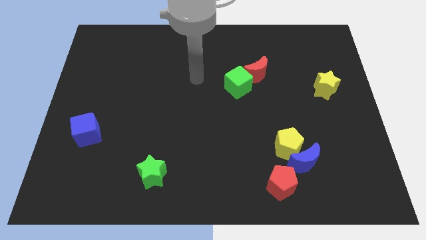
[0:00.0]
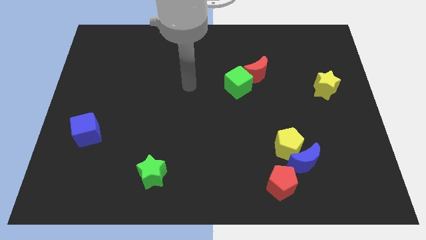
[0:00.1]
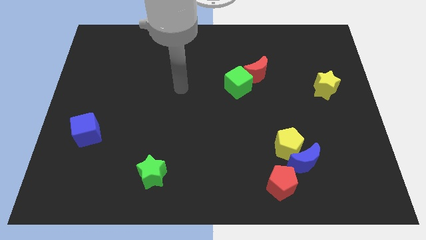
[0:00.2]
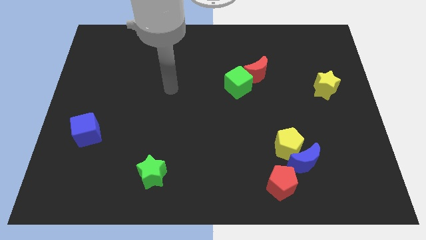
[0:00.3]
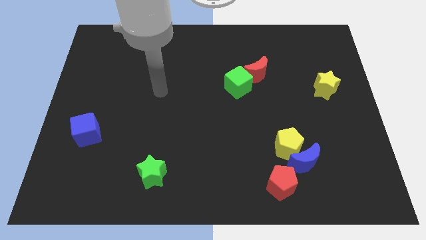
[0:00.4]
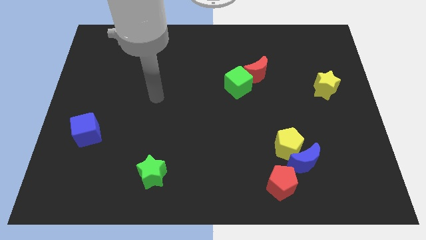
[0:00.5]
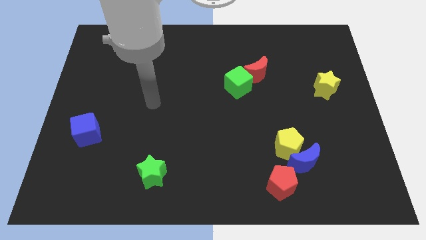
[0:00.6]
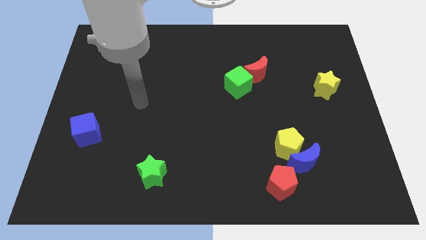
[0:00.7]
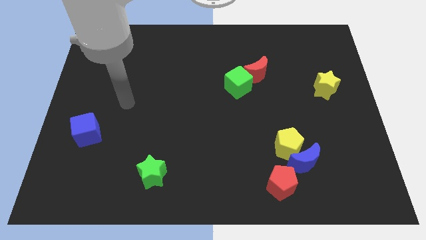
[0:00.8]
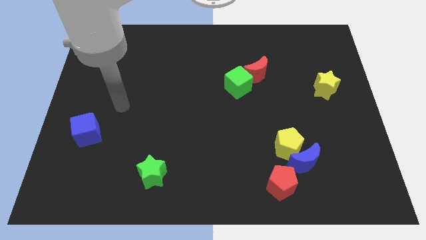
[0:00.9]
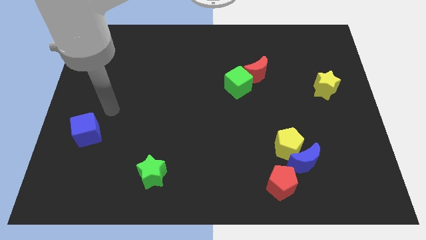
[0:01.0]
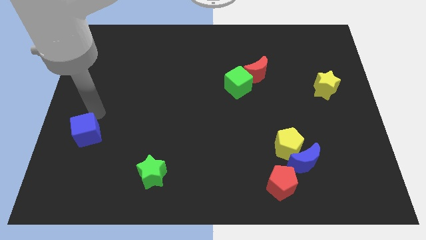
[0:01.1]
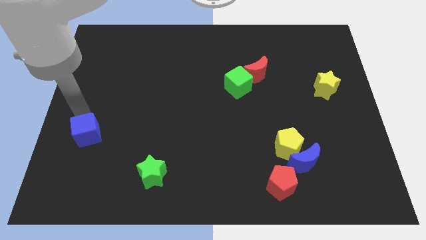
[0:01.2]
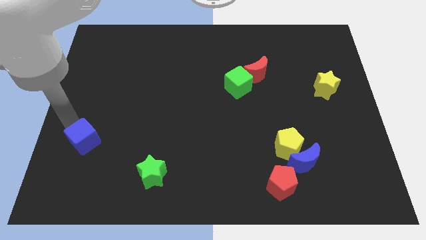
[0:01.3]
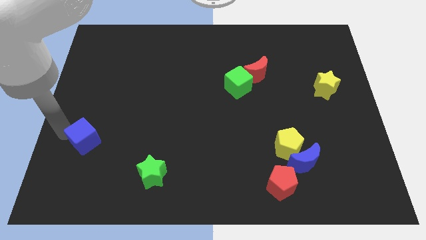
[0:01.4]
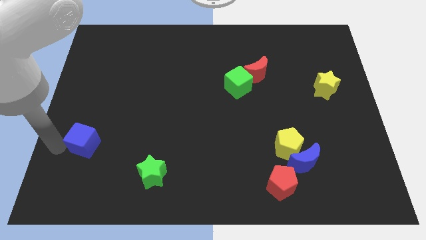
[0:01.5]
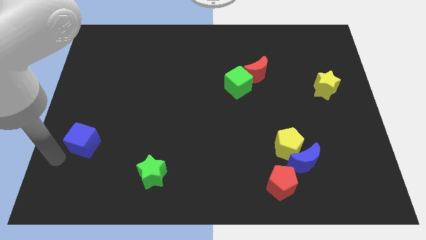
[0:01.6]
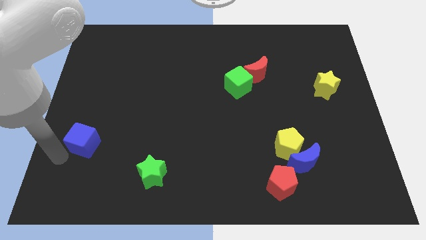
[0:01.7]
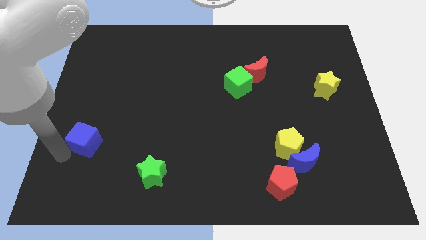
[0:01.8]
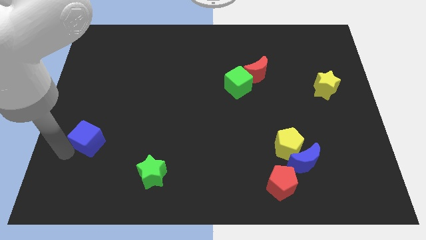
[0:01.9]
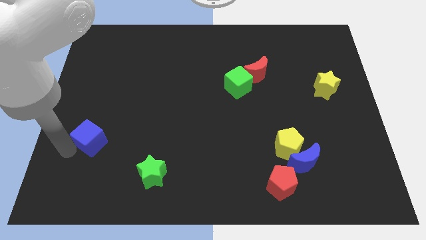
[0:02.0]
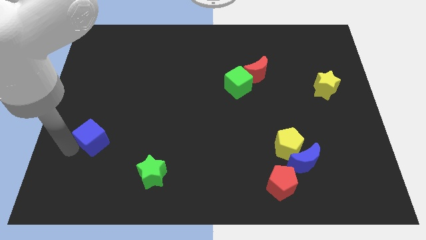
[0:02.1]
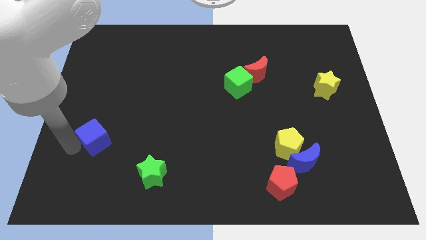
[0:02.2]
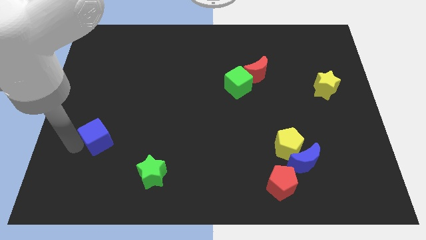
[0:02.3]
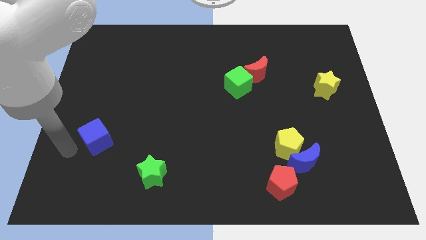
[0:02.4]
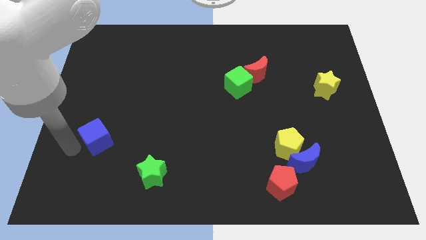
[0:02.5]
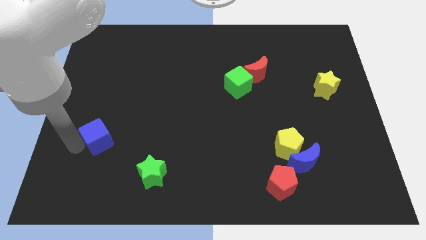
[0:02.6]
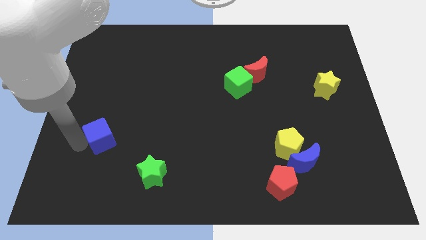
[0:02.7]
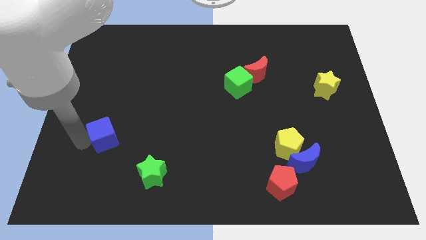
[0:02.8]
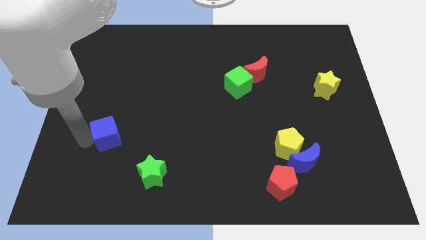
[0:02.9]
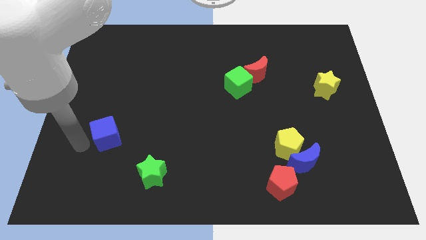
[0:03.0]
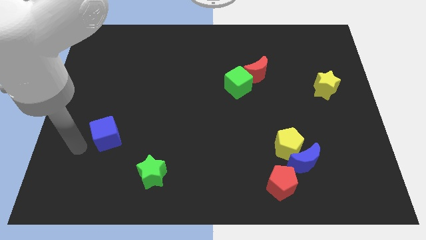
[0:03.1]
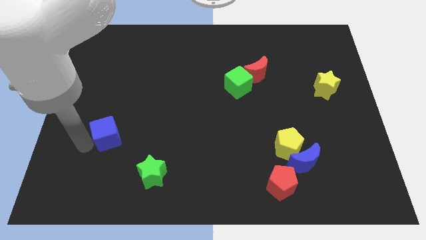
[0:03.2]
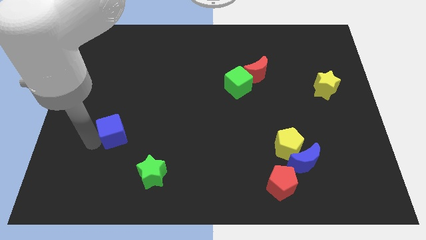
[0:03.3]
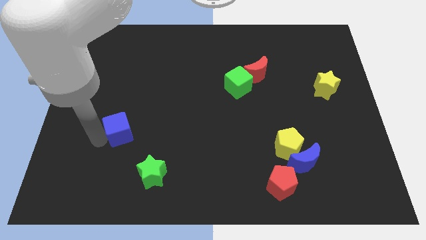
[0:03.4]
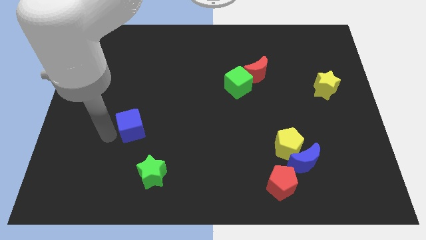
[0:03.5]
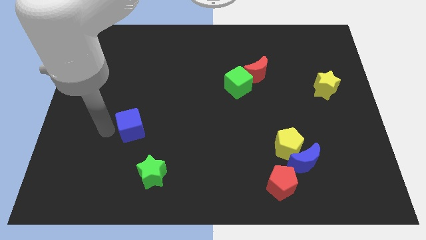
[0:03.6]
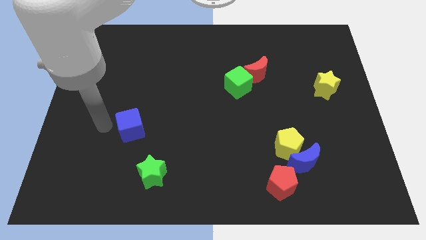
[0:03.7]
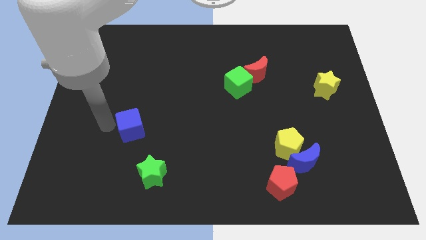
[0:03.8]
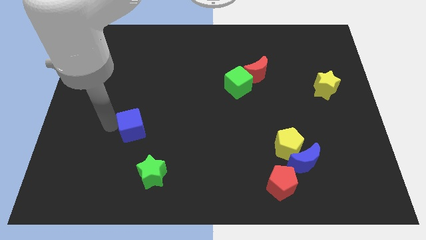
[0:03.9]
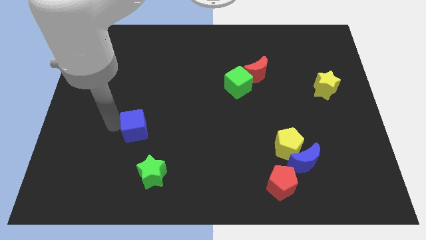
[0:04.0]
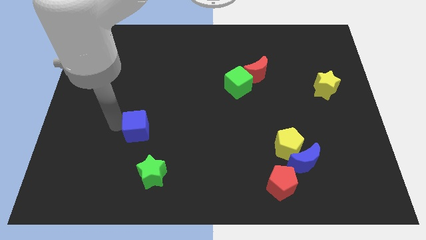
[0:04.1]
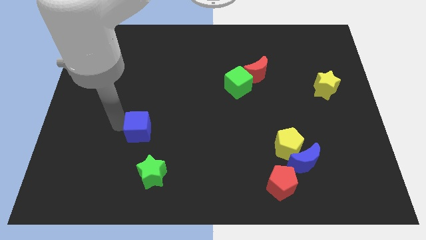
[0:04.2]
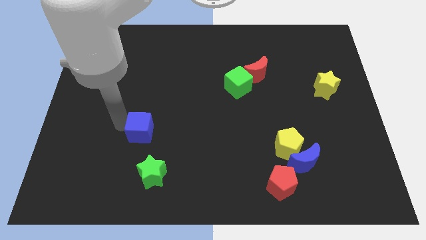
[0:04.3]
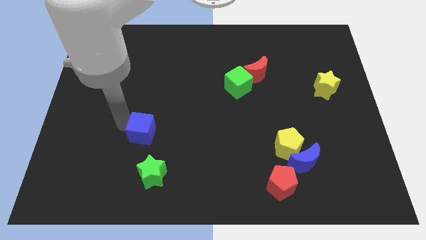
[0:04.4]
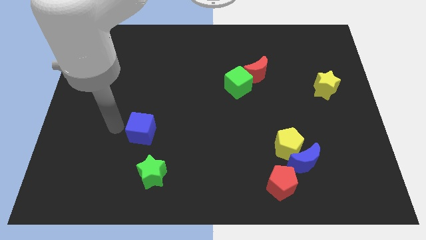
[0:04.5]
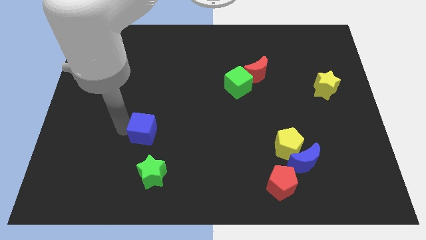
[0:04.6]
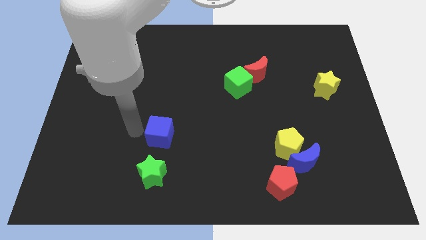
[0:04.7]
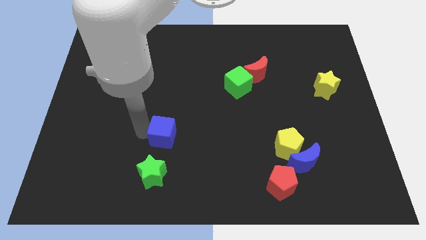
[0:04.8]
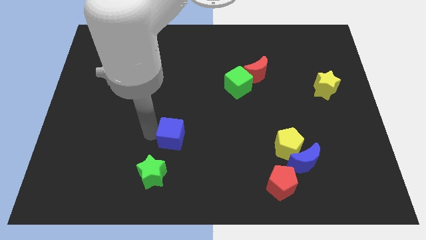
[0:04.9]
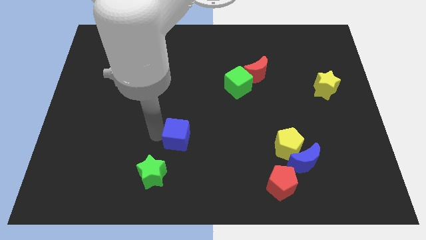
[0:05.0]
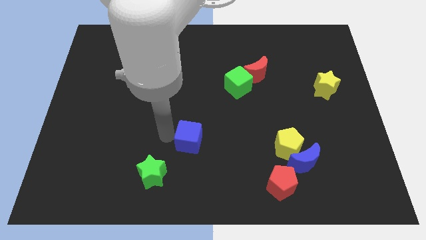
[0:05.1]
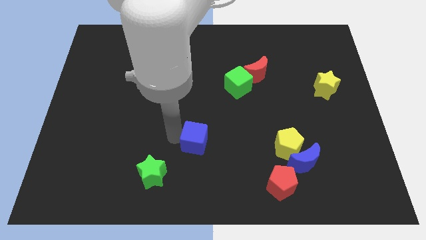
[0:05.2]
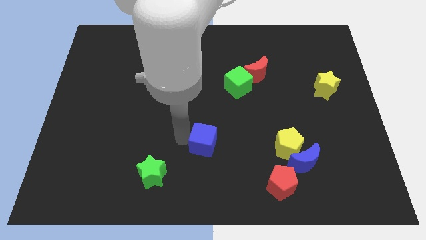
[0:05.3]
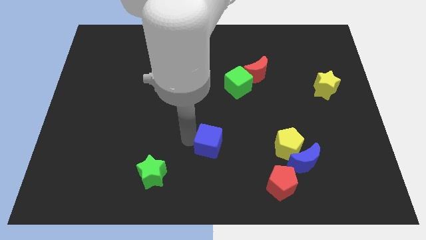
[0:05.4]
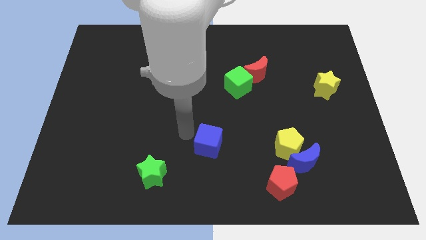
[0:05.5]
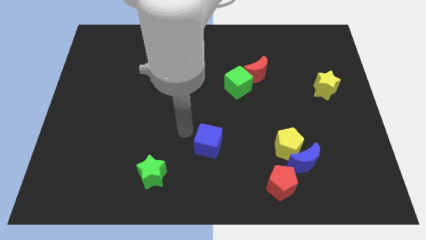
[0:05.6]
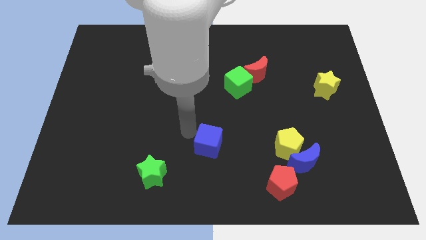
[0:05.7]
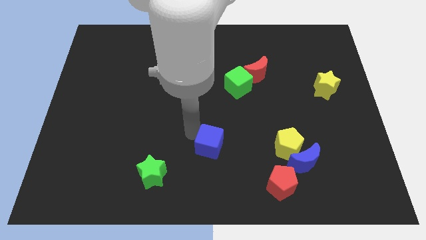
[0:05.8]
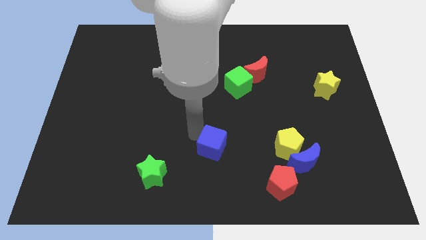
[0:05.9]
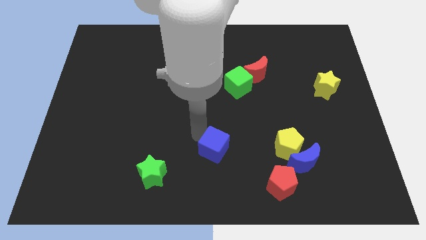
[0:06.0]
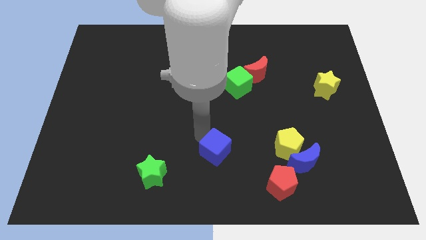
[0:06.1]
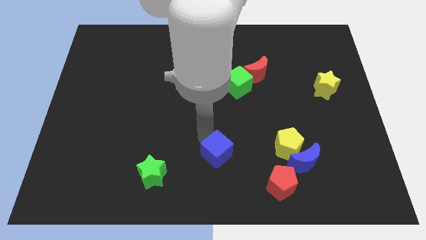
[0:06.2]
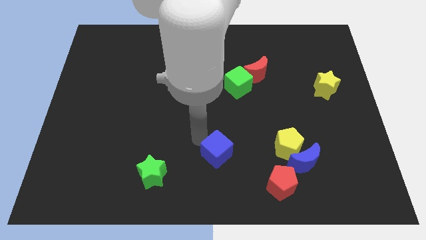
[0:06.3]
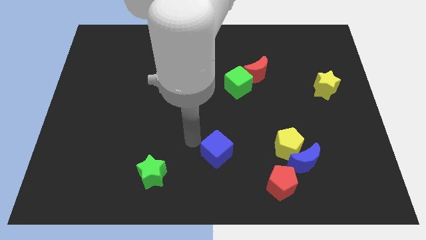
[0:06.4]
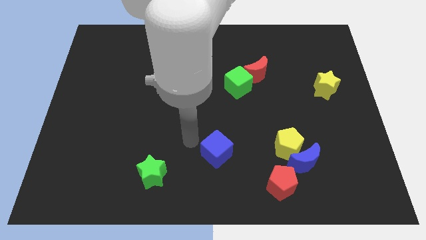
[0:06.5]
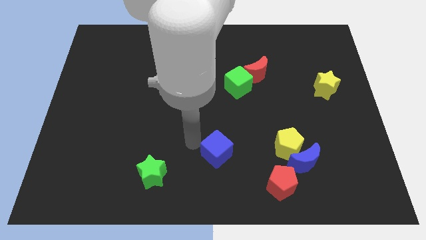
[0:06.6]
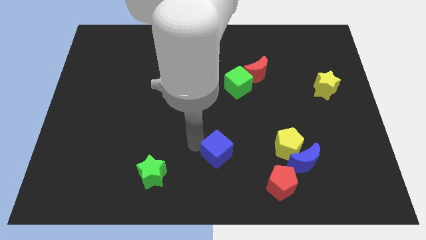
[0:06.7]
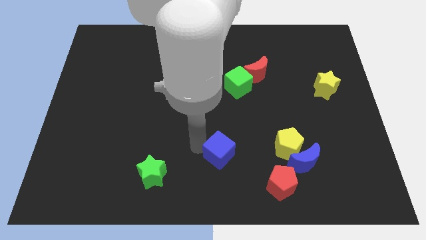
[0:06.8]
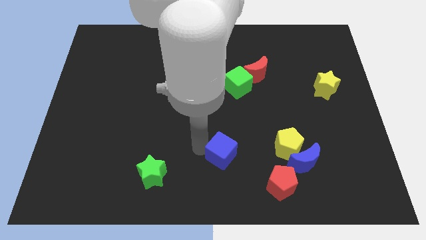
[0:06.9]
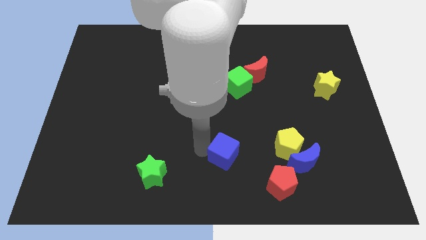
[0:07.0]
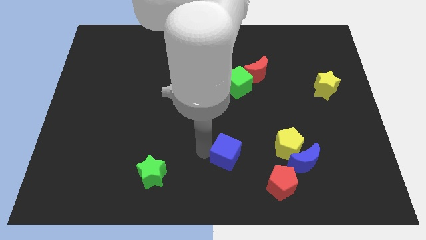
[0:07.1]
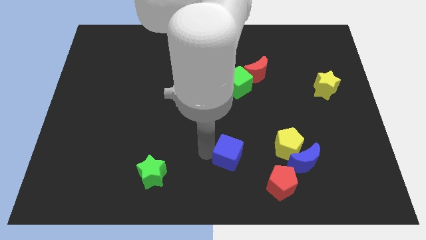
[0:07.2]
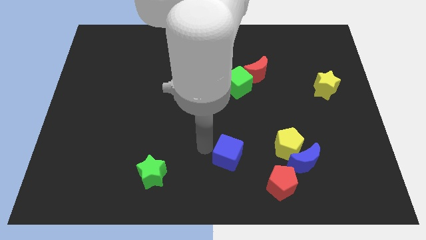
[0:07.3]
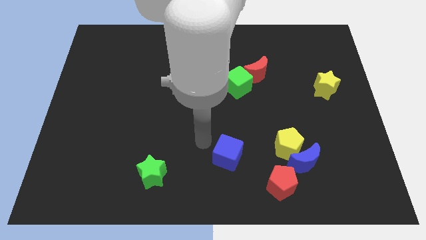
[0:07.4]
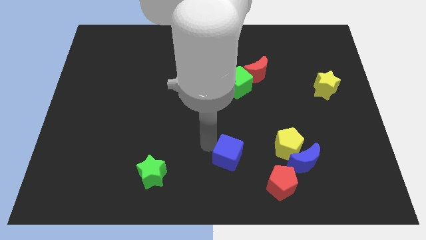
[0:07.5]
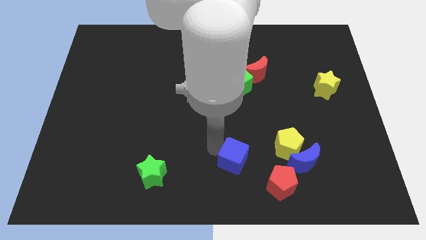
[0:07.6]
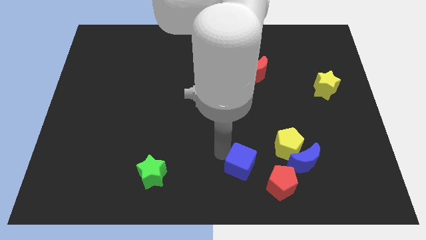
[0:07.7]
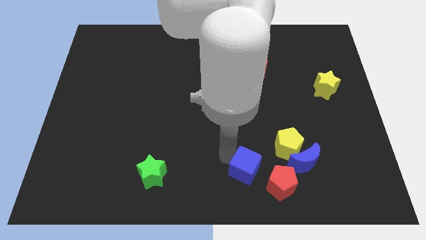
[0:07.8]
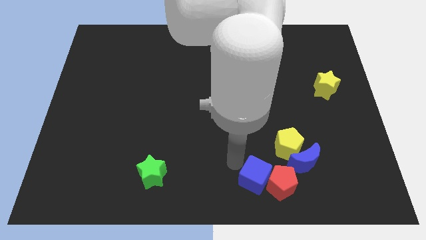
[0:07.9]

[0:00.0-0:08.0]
push the blue cube to the red pentagon
